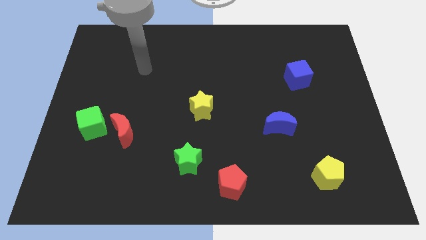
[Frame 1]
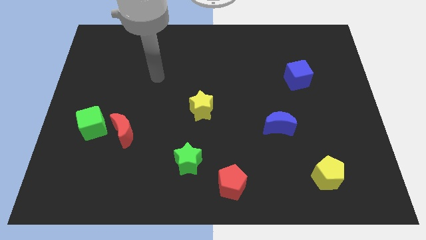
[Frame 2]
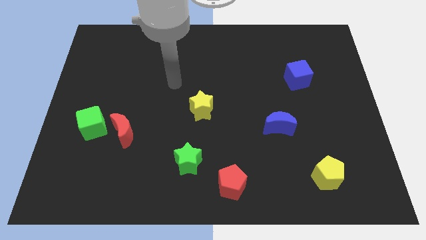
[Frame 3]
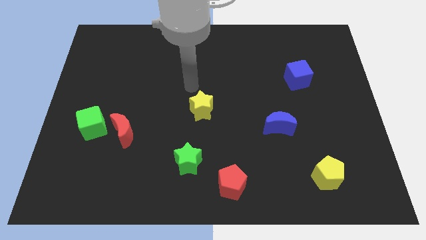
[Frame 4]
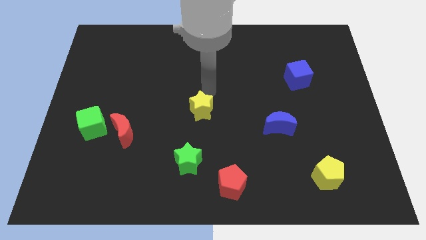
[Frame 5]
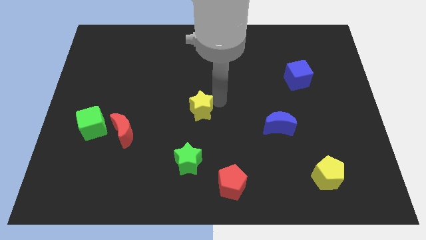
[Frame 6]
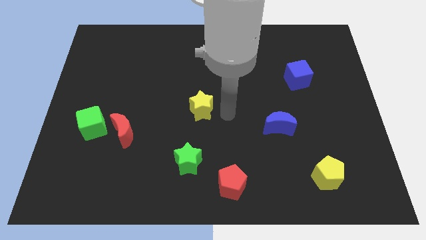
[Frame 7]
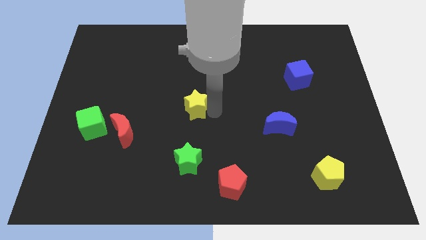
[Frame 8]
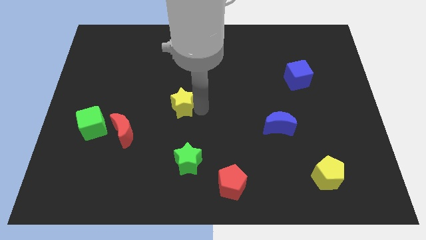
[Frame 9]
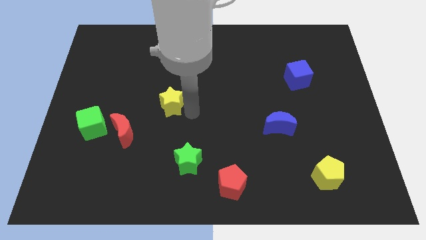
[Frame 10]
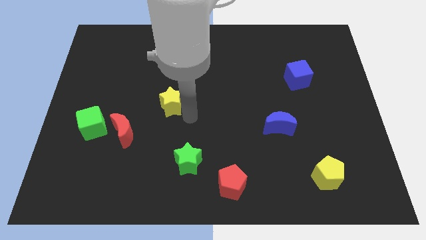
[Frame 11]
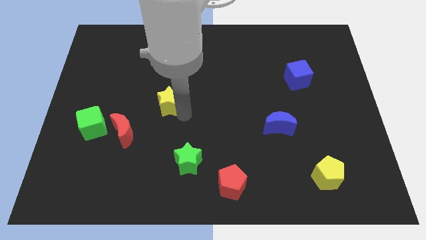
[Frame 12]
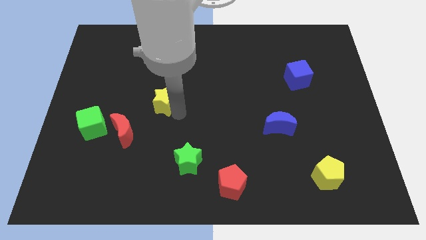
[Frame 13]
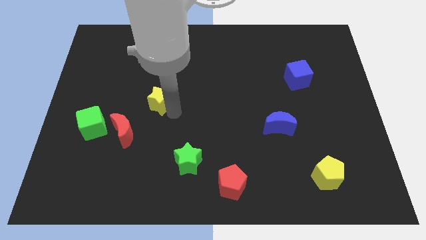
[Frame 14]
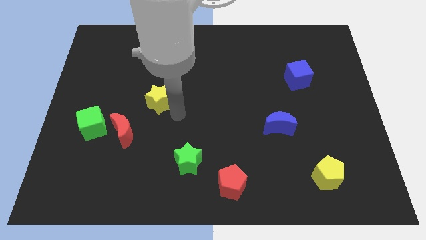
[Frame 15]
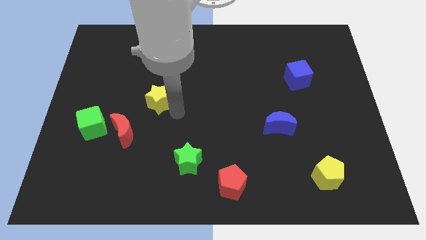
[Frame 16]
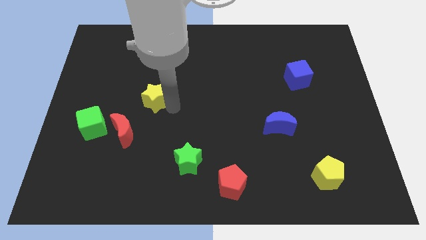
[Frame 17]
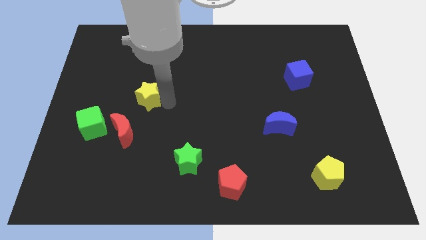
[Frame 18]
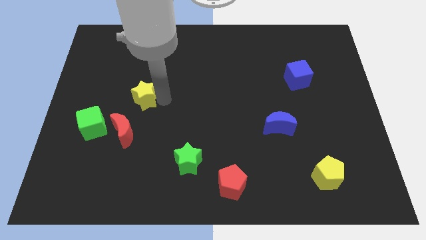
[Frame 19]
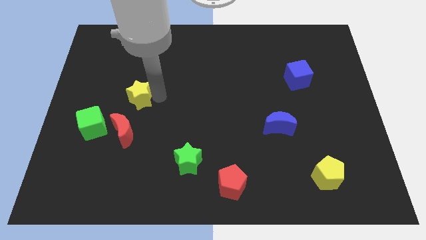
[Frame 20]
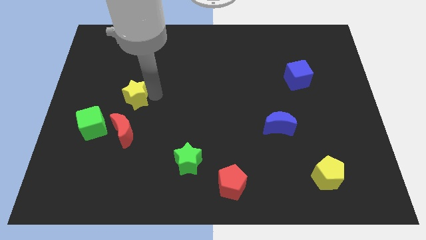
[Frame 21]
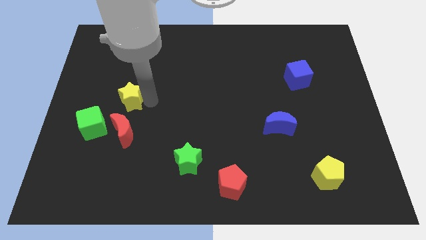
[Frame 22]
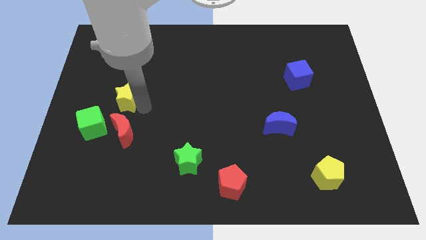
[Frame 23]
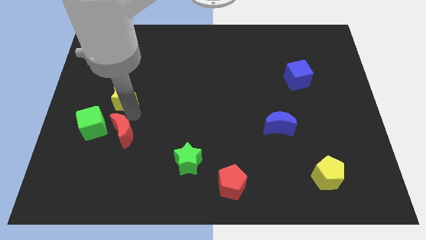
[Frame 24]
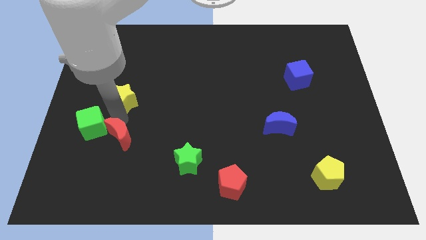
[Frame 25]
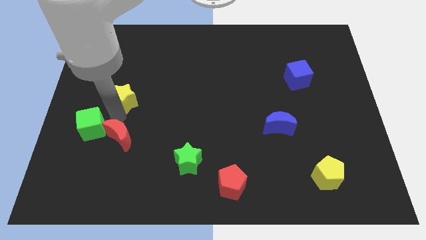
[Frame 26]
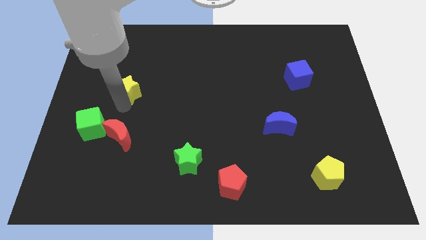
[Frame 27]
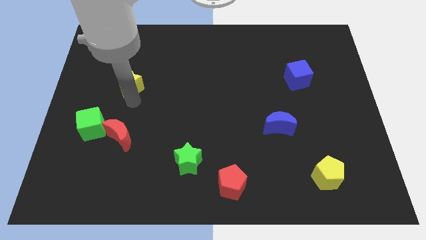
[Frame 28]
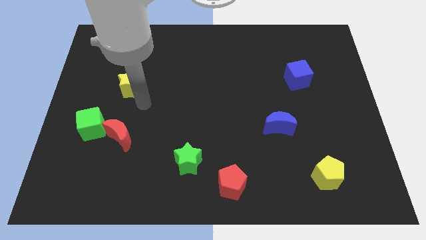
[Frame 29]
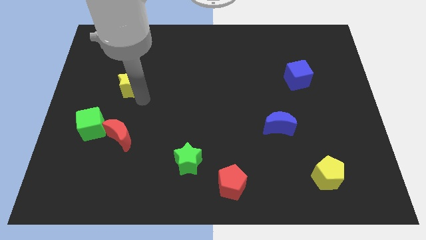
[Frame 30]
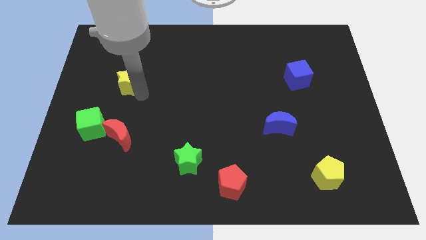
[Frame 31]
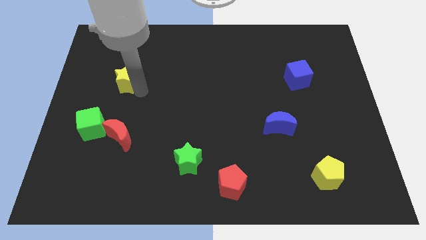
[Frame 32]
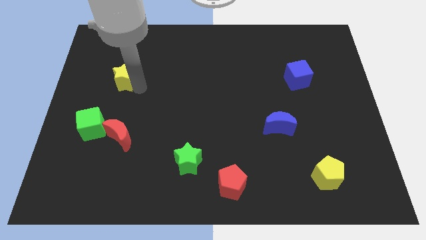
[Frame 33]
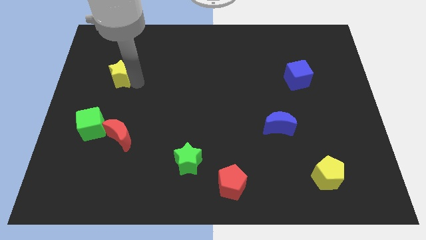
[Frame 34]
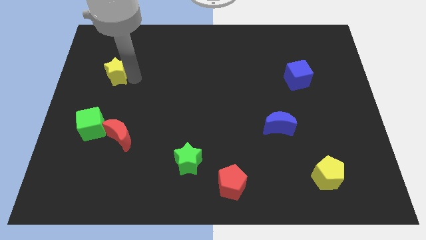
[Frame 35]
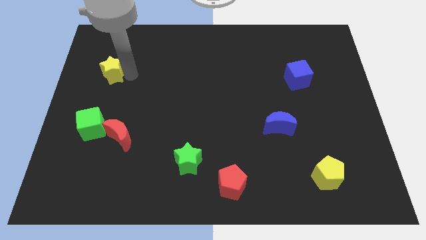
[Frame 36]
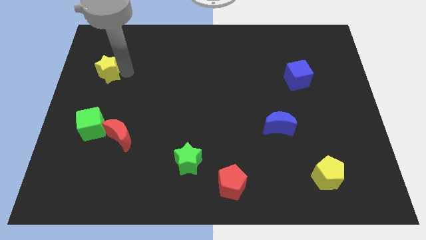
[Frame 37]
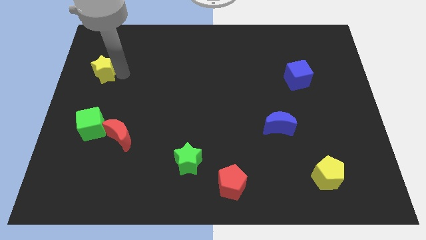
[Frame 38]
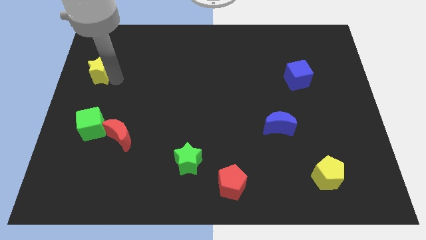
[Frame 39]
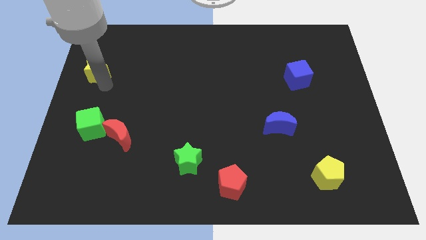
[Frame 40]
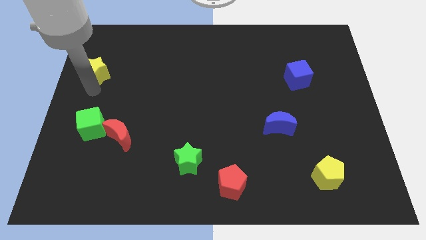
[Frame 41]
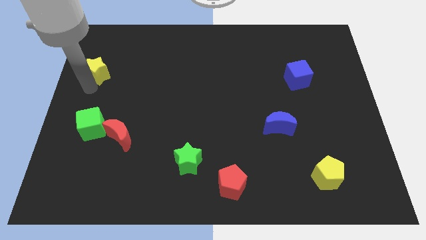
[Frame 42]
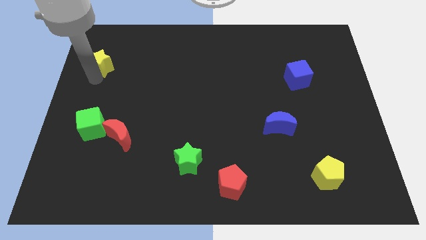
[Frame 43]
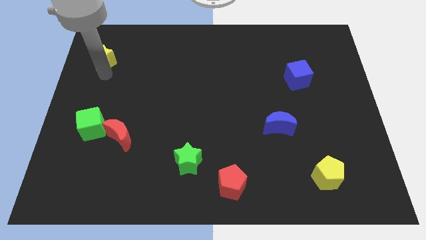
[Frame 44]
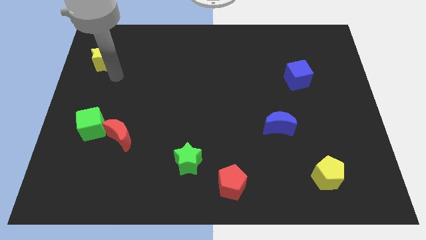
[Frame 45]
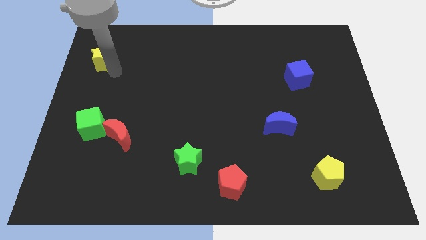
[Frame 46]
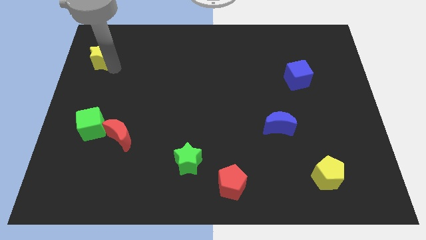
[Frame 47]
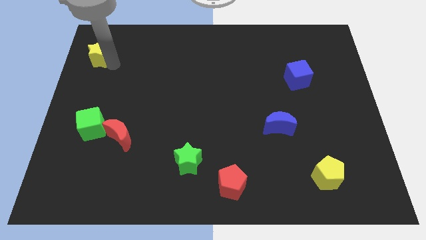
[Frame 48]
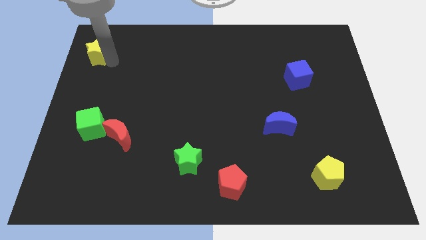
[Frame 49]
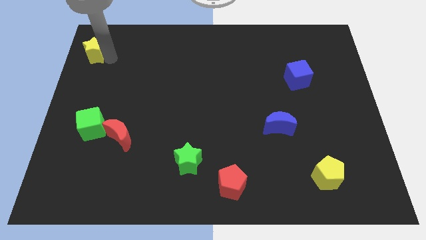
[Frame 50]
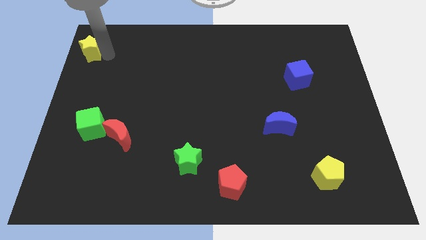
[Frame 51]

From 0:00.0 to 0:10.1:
move the yellow star to the upper left corner

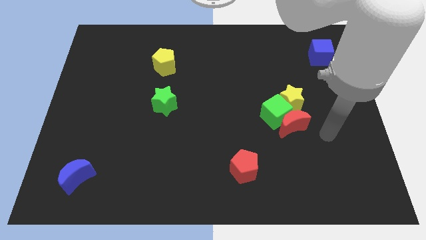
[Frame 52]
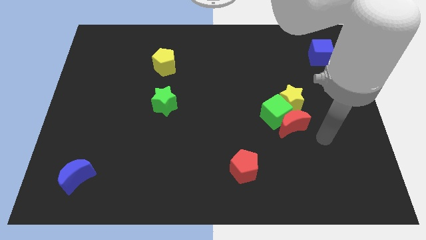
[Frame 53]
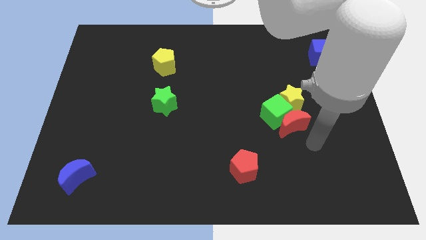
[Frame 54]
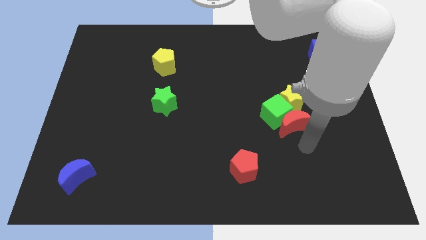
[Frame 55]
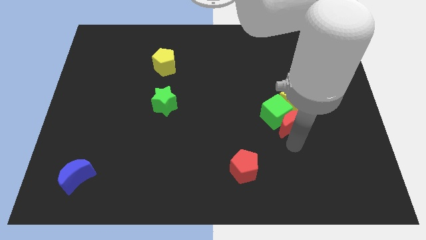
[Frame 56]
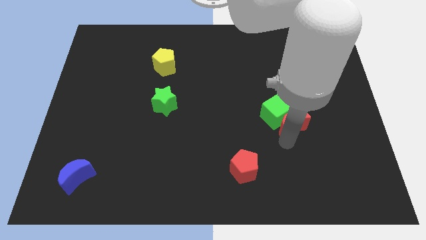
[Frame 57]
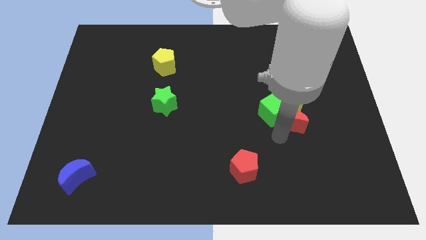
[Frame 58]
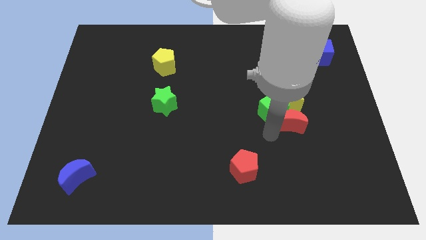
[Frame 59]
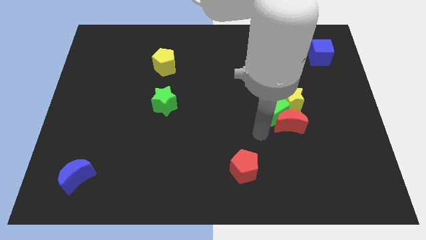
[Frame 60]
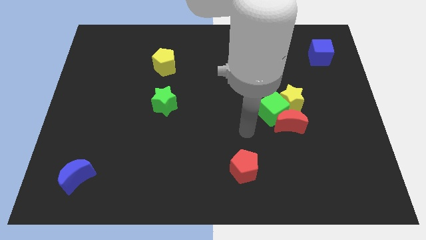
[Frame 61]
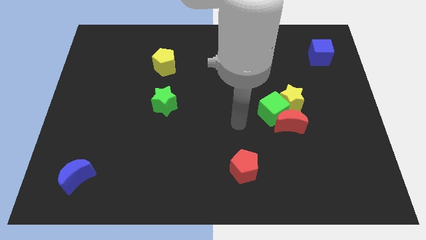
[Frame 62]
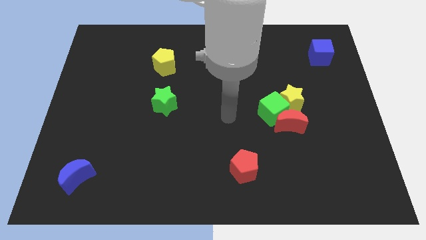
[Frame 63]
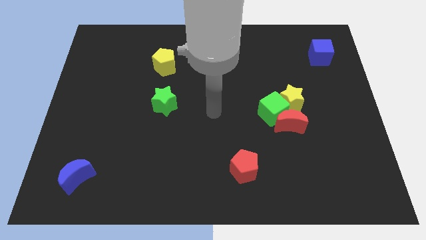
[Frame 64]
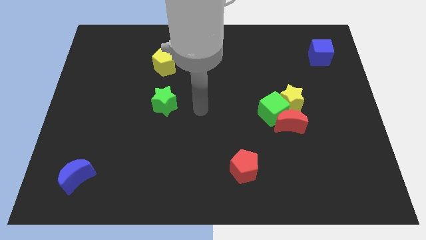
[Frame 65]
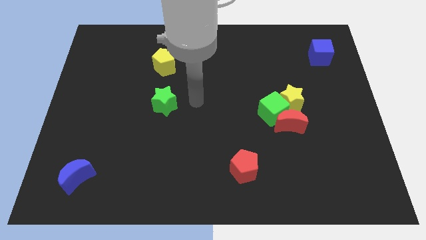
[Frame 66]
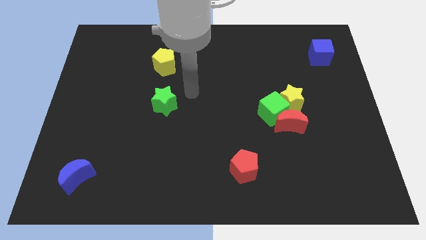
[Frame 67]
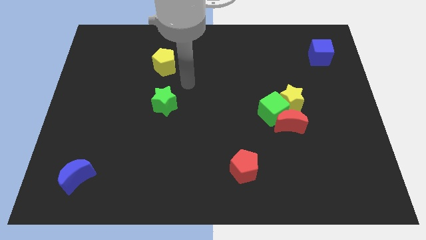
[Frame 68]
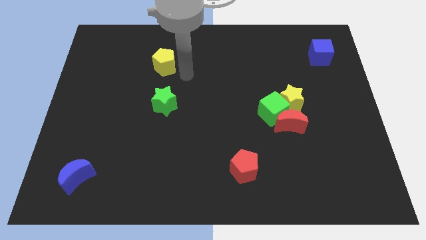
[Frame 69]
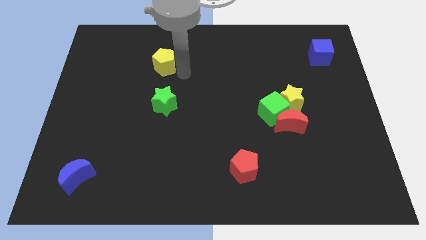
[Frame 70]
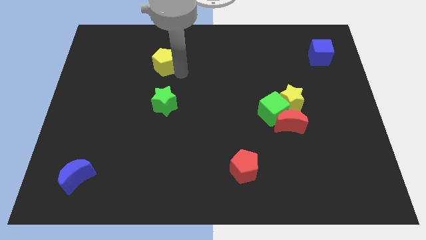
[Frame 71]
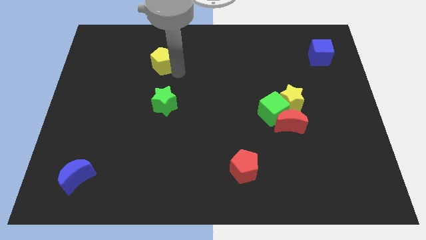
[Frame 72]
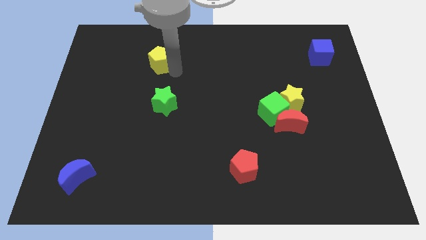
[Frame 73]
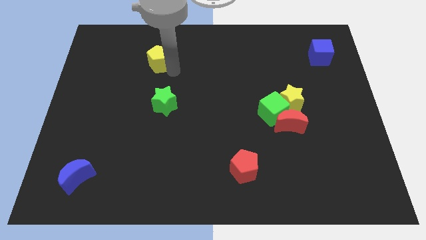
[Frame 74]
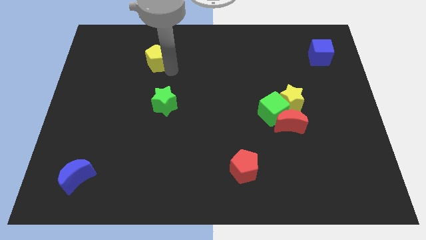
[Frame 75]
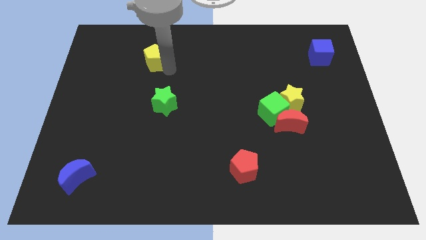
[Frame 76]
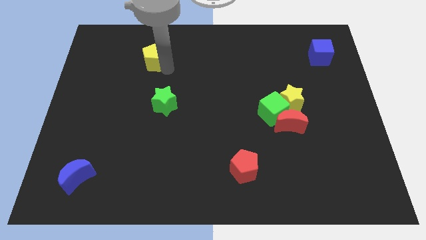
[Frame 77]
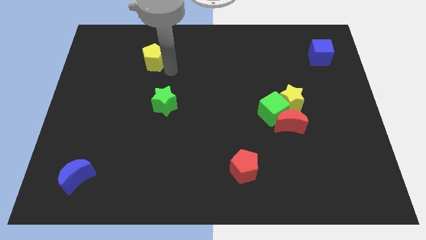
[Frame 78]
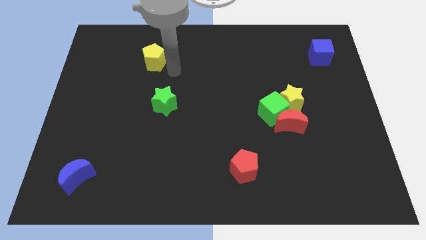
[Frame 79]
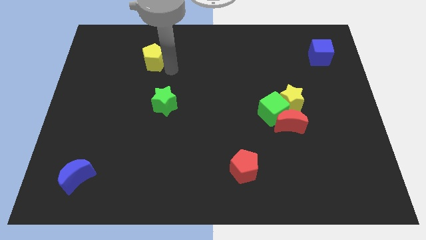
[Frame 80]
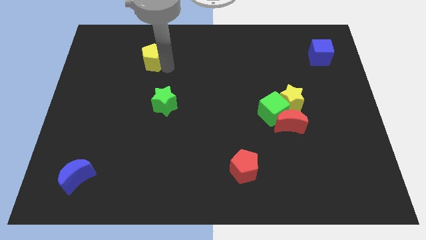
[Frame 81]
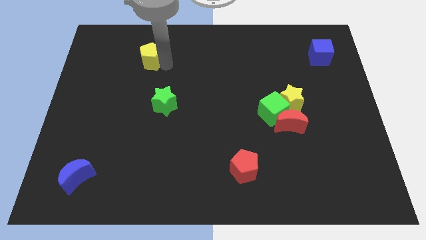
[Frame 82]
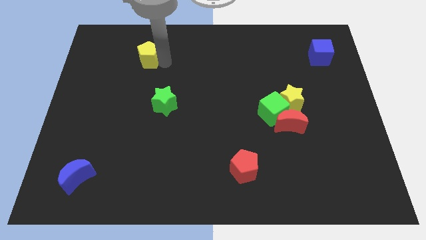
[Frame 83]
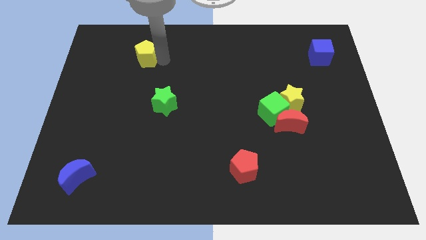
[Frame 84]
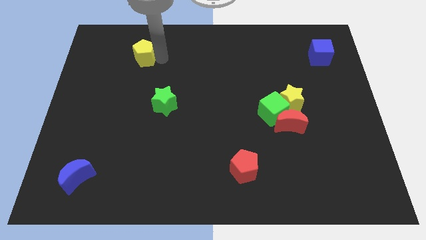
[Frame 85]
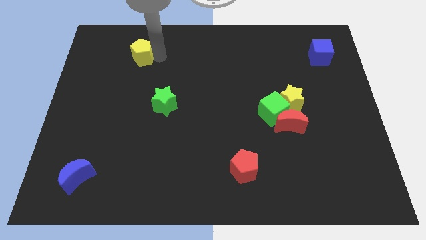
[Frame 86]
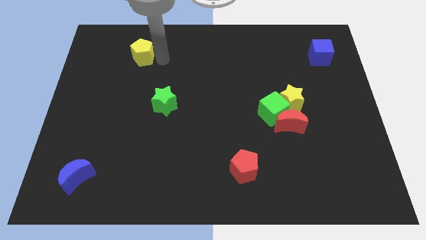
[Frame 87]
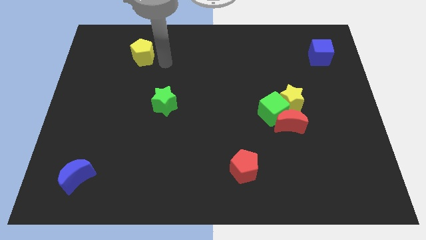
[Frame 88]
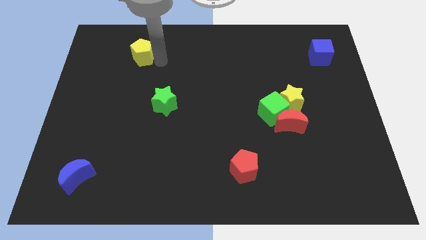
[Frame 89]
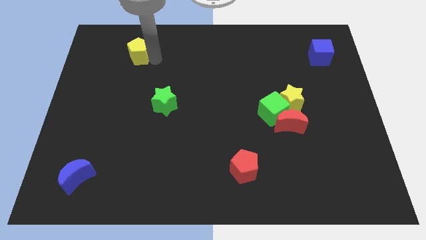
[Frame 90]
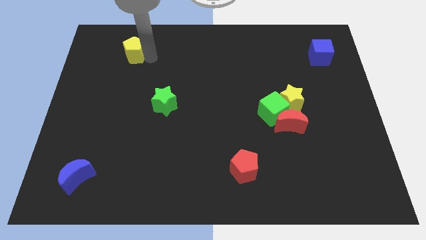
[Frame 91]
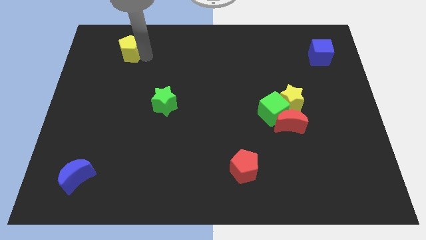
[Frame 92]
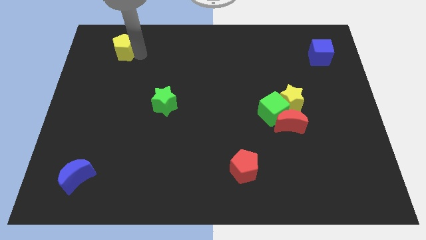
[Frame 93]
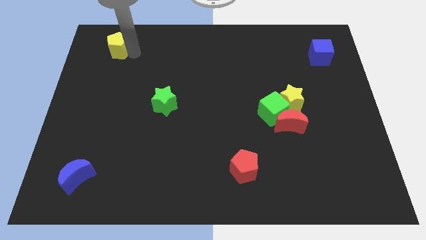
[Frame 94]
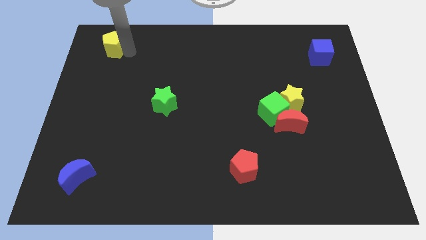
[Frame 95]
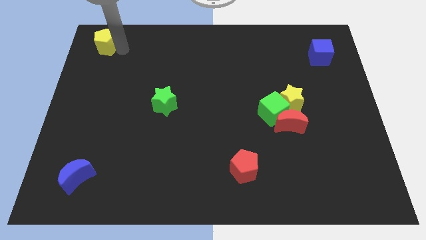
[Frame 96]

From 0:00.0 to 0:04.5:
slide the yellow pentagon to the top left of the board
